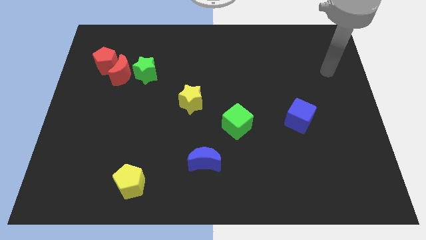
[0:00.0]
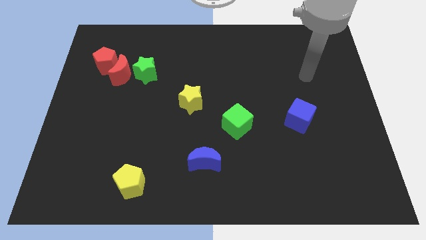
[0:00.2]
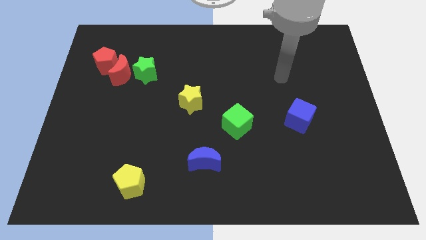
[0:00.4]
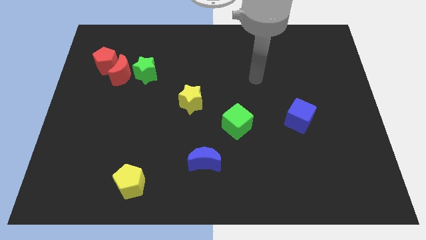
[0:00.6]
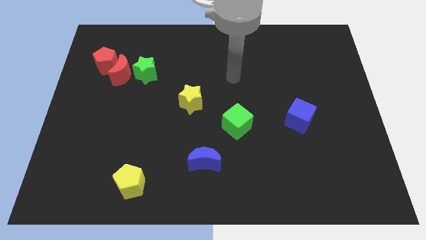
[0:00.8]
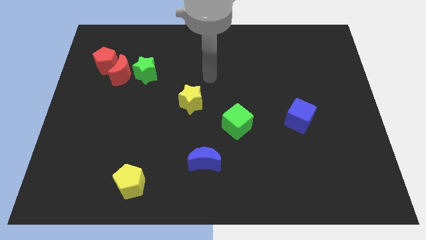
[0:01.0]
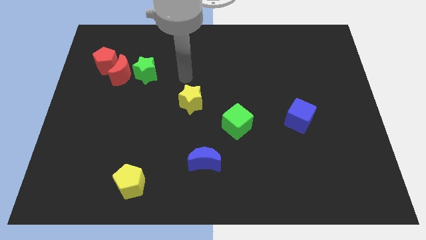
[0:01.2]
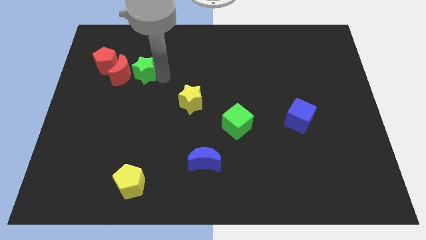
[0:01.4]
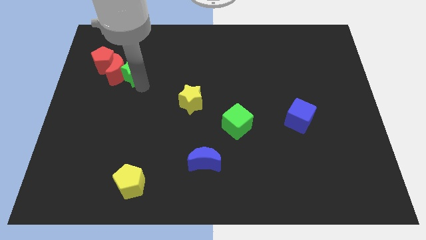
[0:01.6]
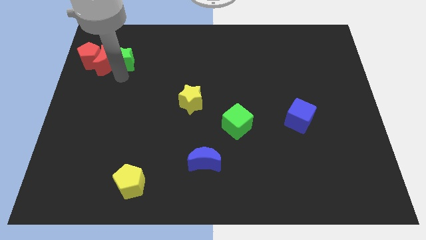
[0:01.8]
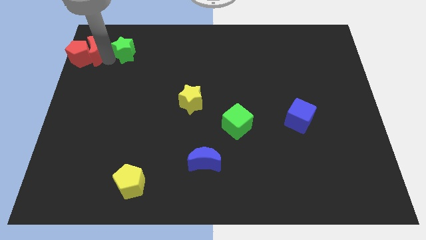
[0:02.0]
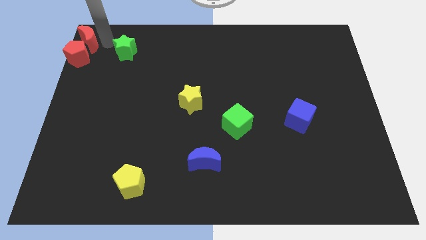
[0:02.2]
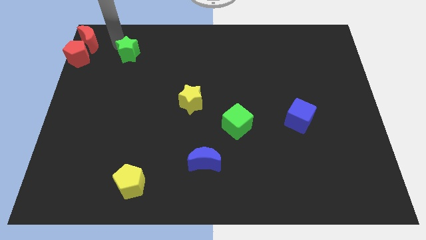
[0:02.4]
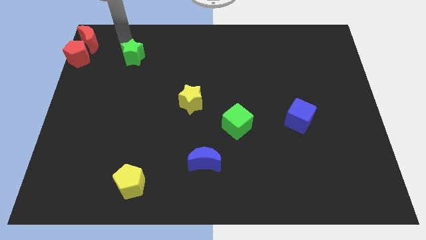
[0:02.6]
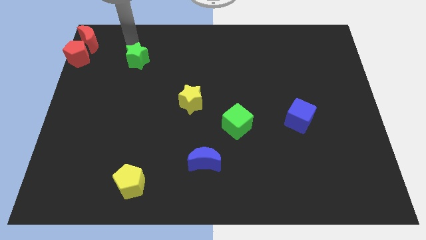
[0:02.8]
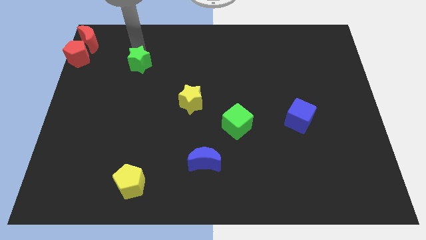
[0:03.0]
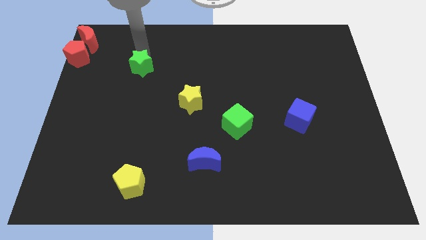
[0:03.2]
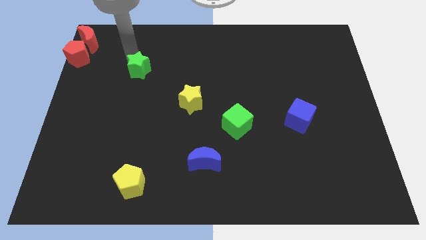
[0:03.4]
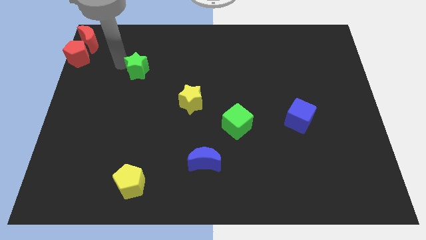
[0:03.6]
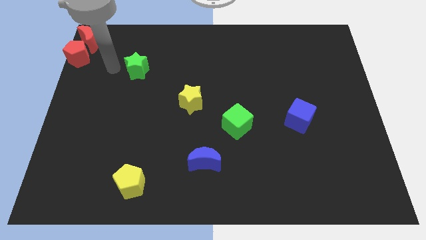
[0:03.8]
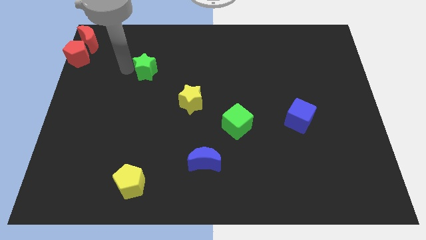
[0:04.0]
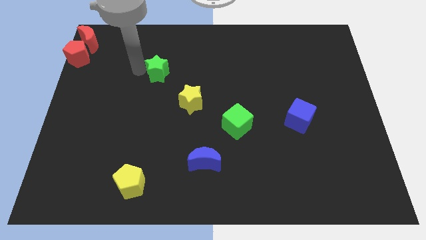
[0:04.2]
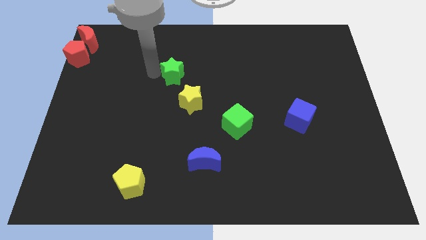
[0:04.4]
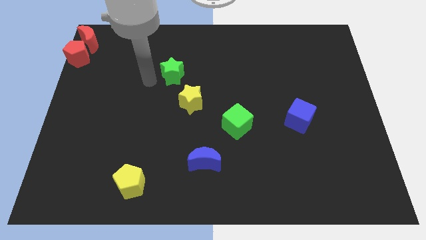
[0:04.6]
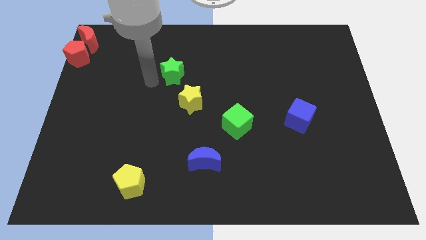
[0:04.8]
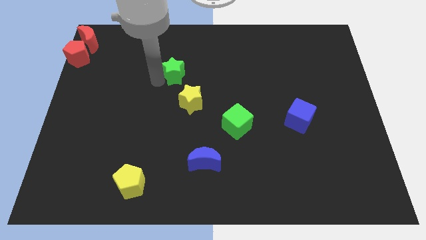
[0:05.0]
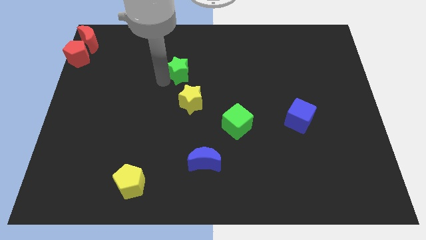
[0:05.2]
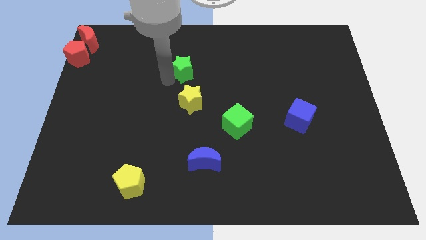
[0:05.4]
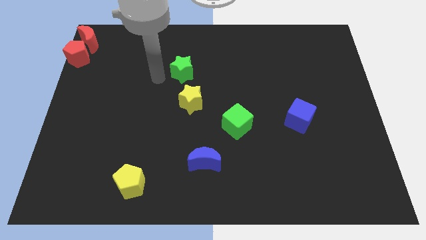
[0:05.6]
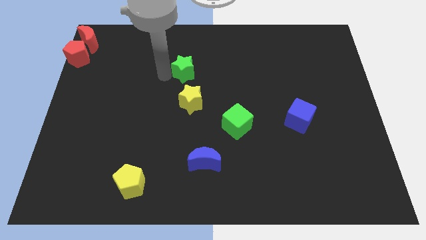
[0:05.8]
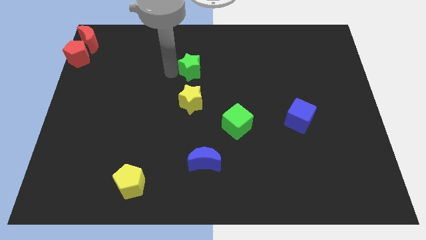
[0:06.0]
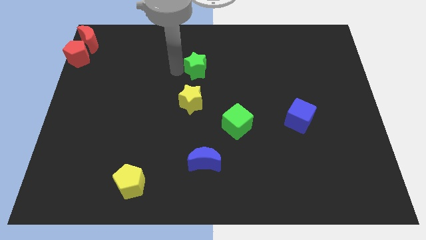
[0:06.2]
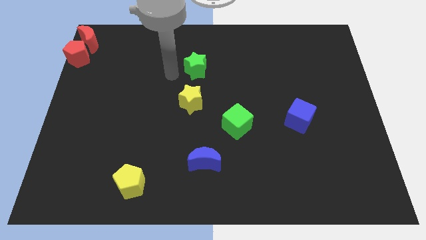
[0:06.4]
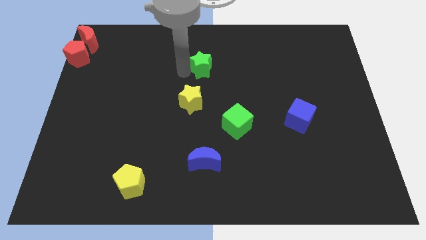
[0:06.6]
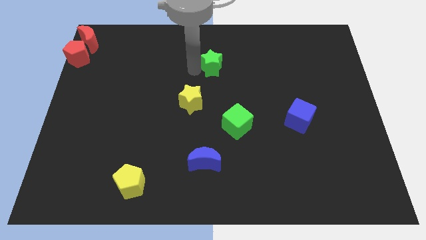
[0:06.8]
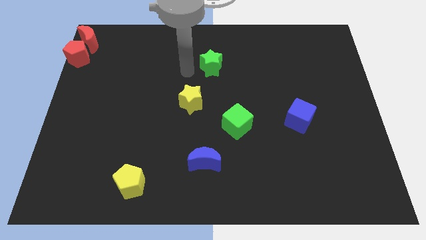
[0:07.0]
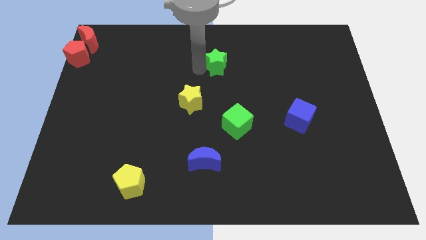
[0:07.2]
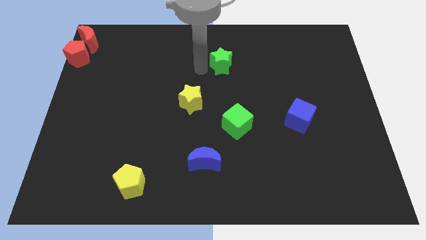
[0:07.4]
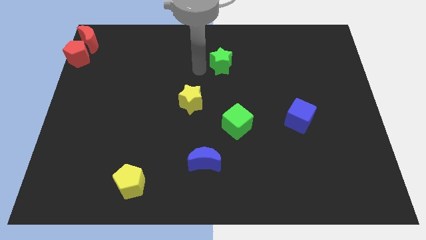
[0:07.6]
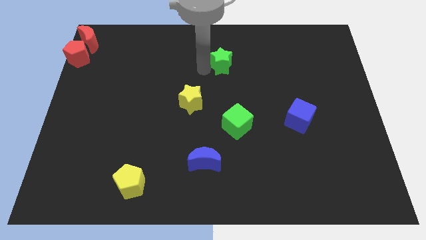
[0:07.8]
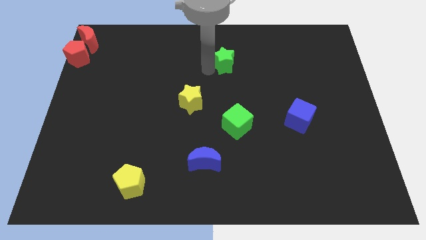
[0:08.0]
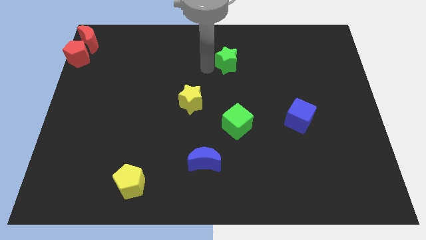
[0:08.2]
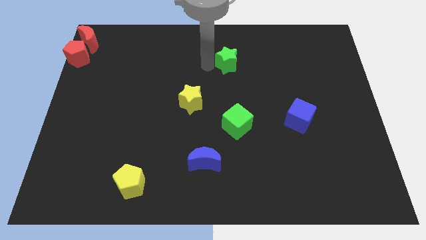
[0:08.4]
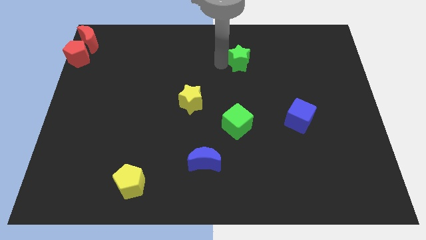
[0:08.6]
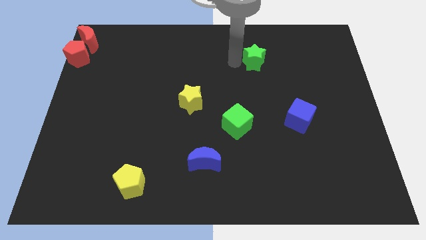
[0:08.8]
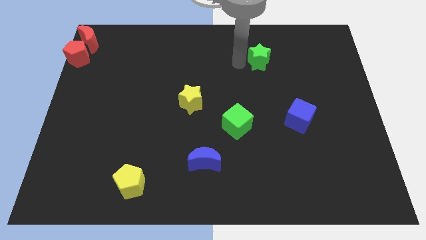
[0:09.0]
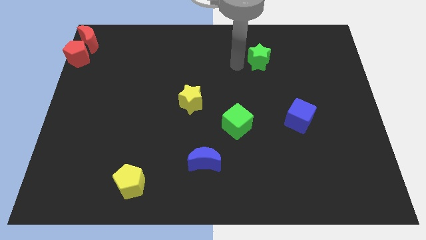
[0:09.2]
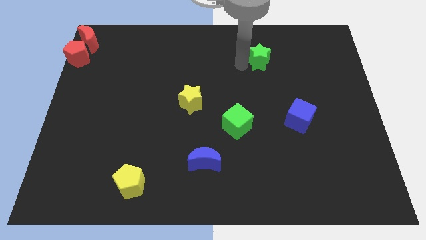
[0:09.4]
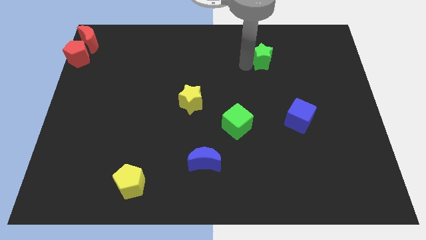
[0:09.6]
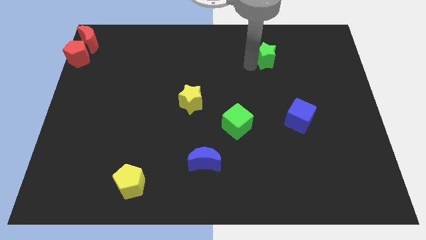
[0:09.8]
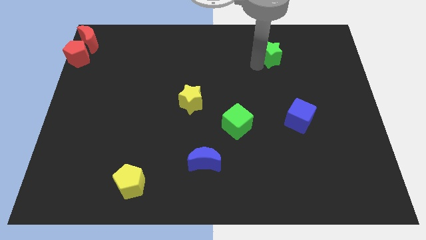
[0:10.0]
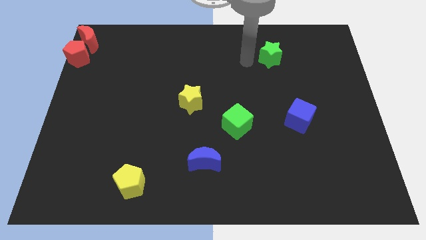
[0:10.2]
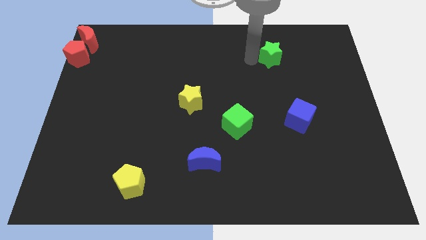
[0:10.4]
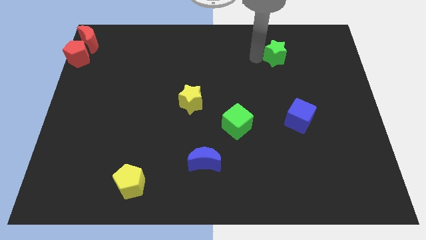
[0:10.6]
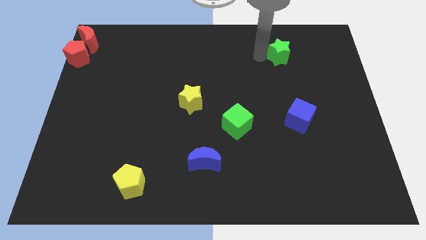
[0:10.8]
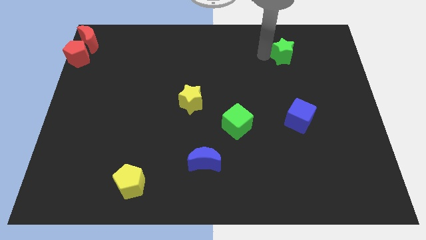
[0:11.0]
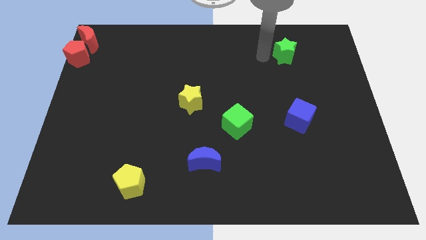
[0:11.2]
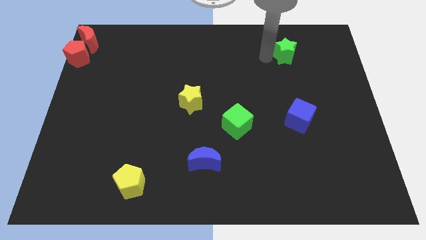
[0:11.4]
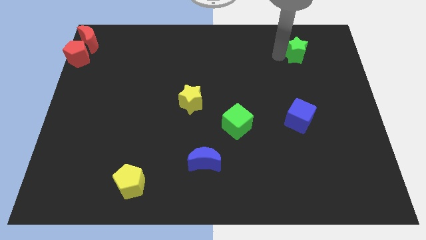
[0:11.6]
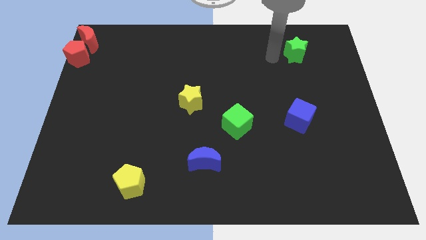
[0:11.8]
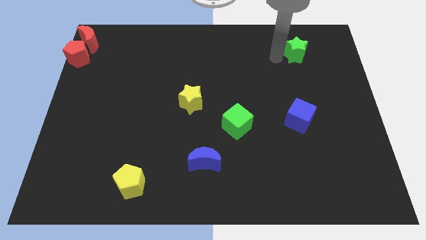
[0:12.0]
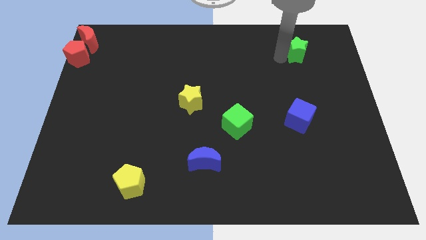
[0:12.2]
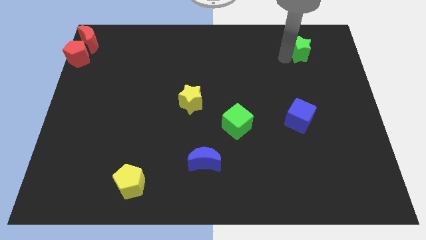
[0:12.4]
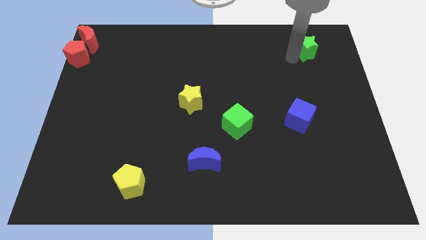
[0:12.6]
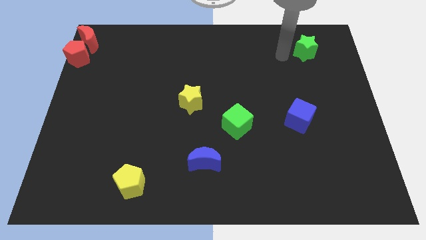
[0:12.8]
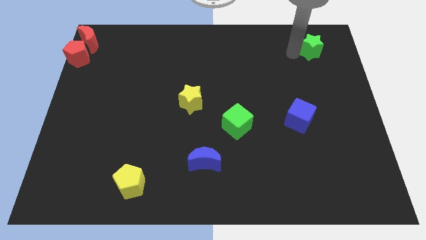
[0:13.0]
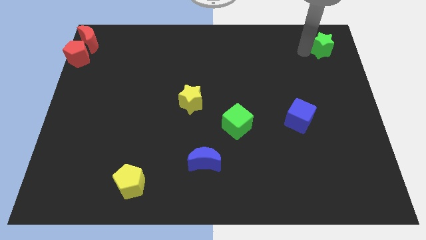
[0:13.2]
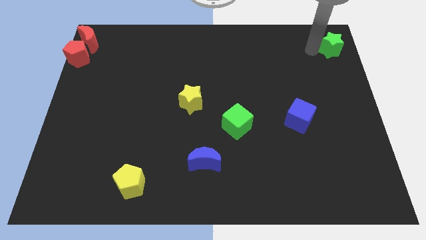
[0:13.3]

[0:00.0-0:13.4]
move the green star to the upper right corner
